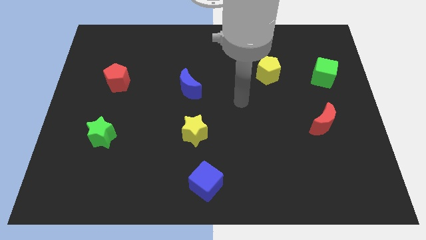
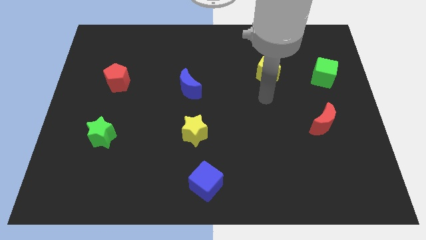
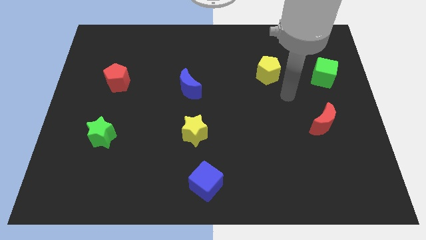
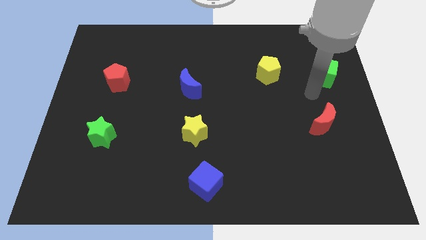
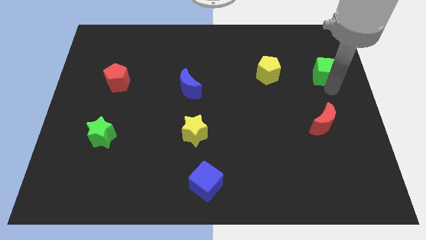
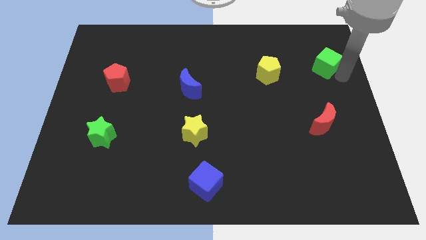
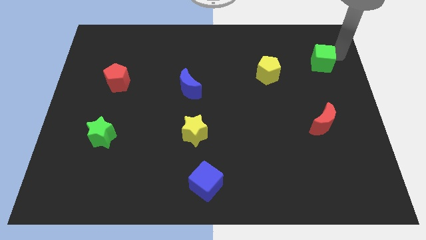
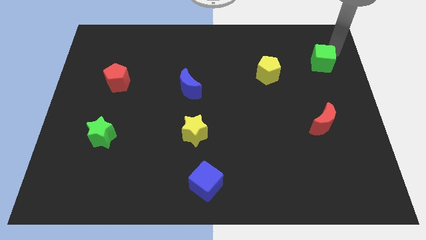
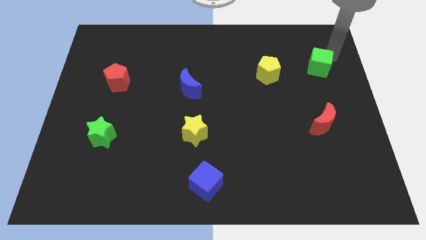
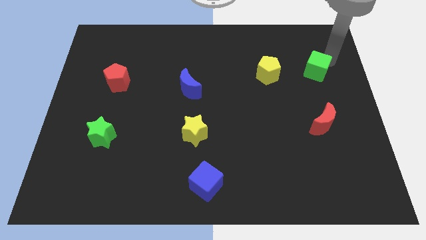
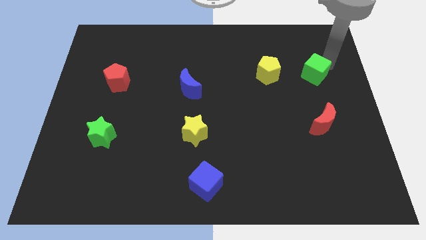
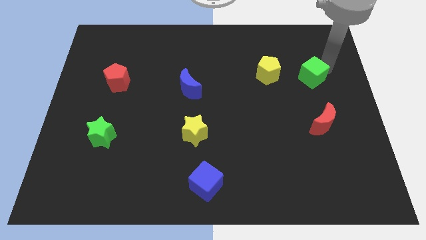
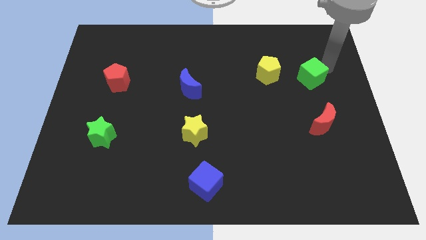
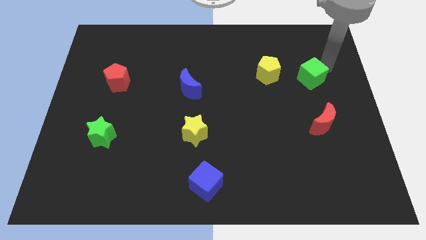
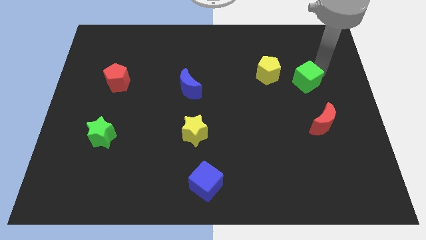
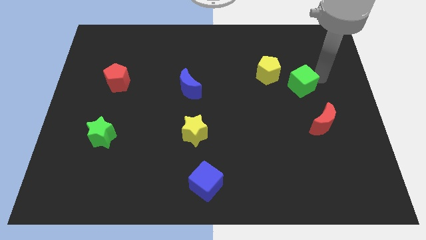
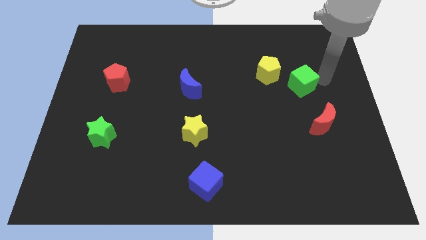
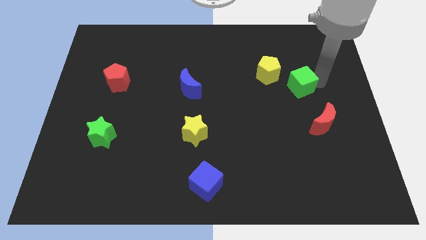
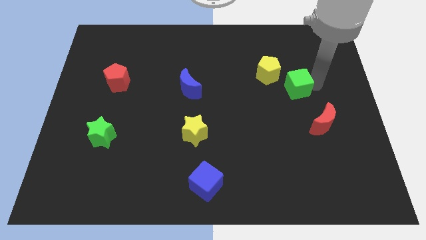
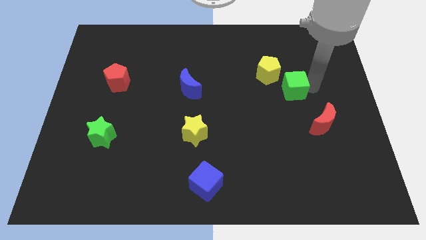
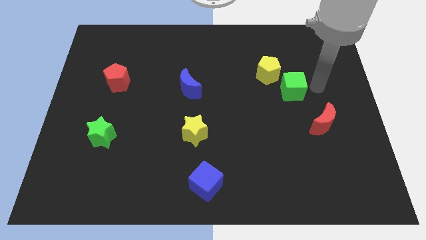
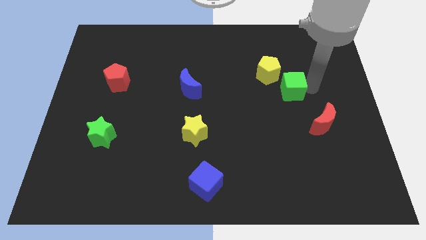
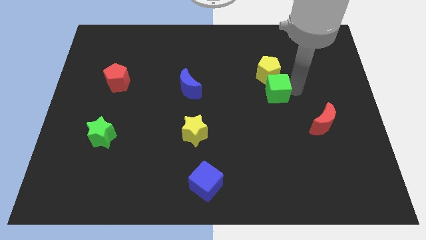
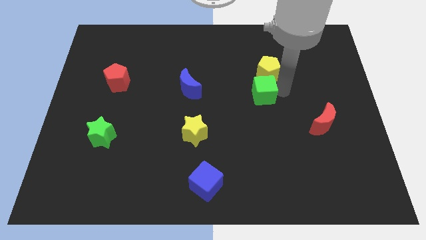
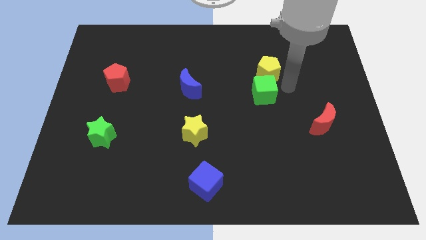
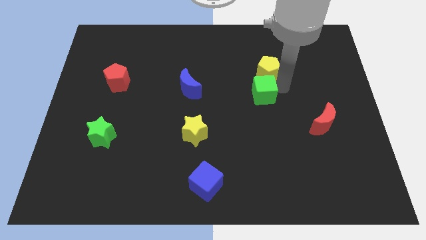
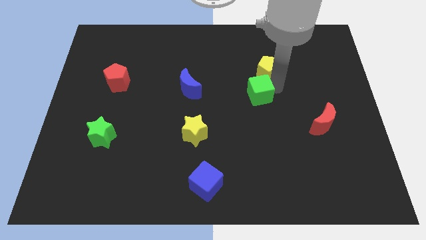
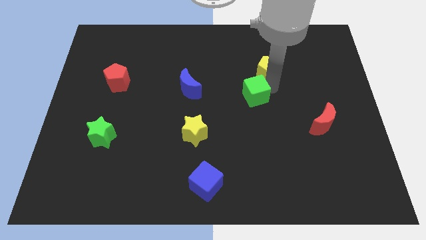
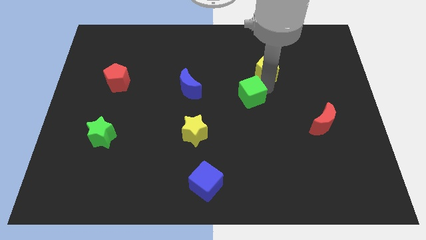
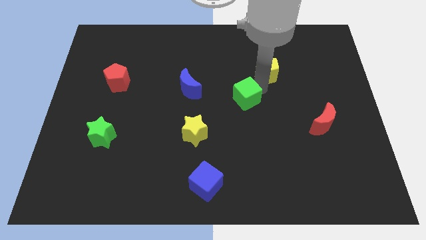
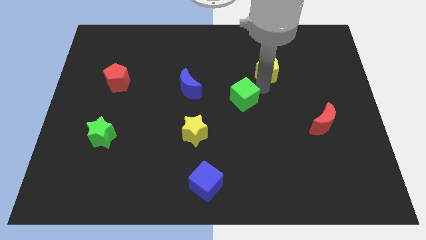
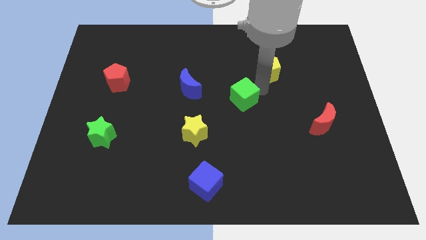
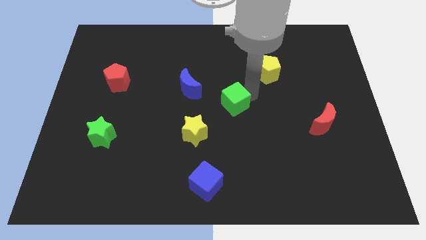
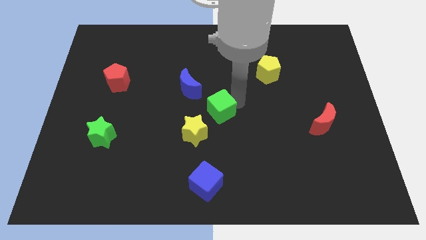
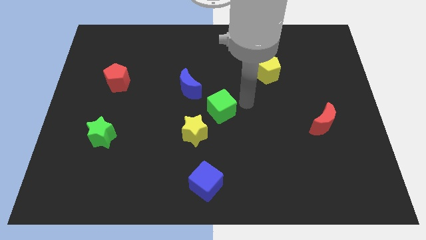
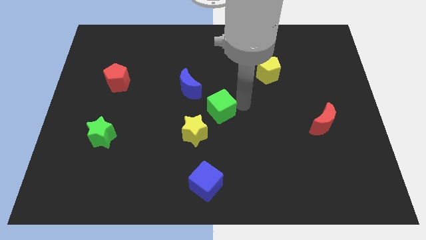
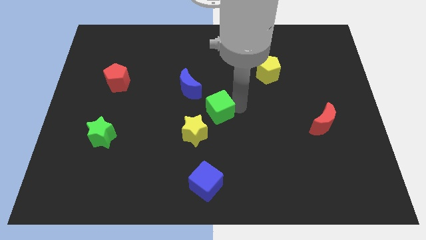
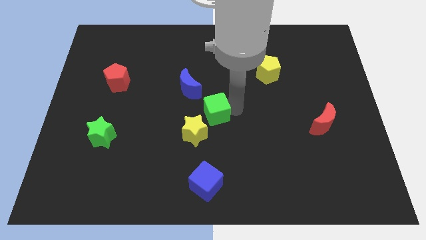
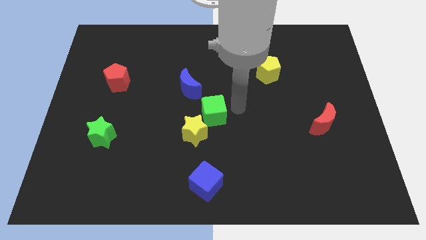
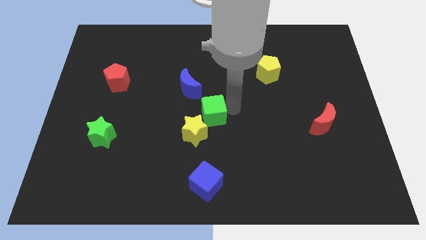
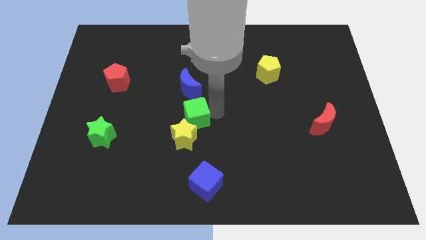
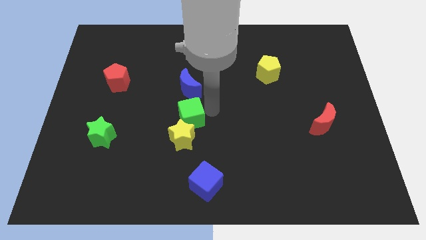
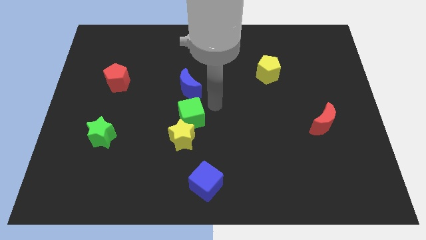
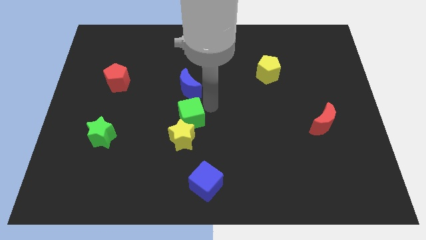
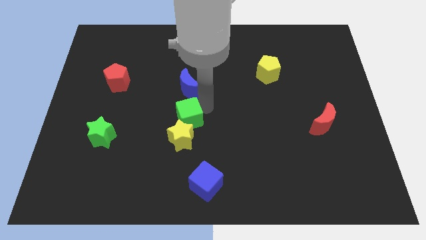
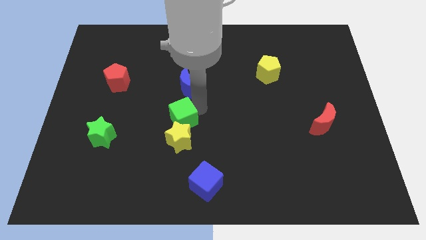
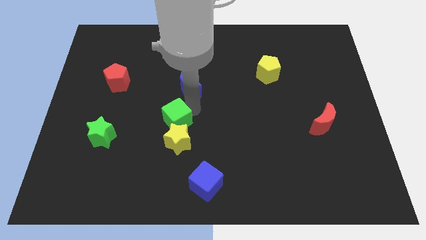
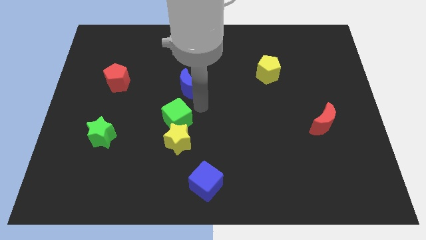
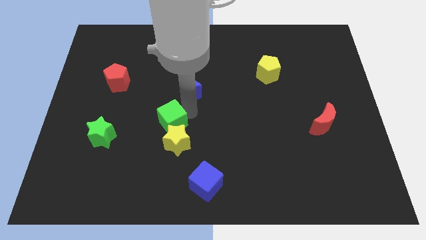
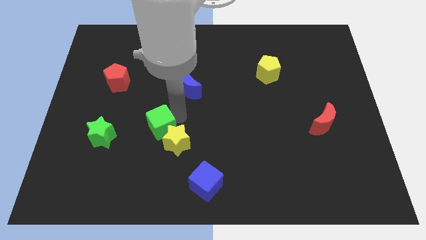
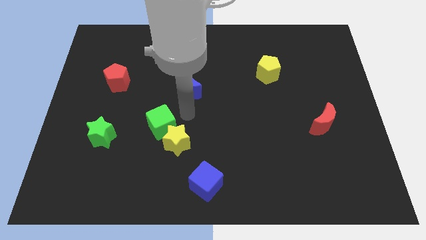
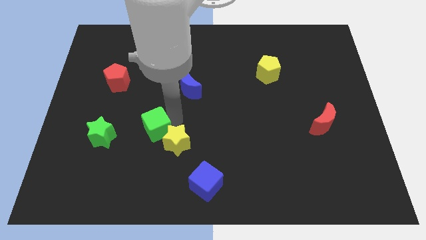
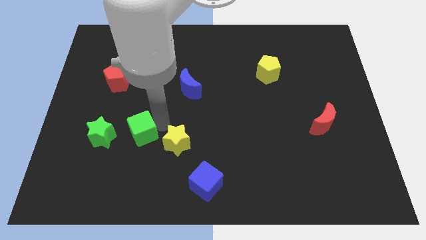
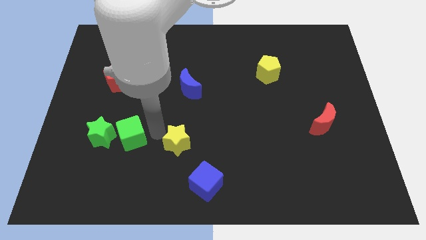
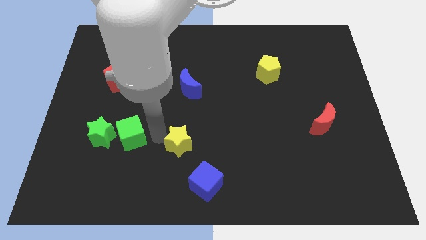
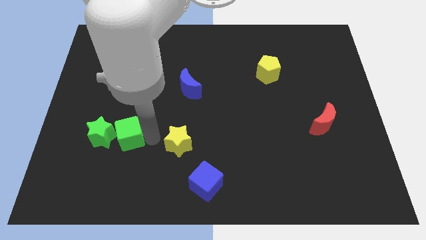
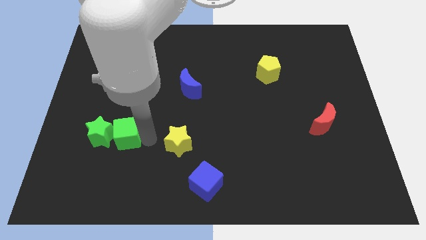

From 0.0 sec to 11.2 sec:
move the green cube towards the green star

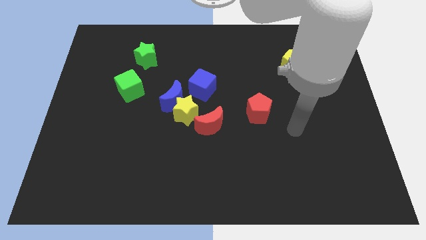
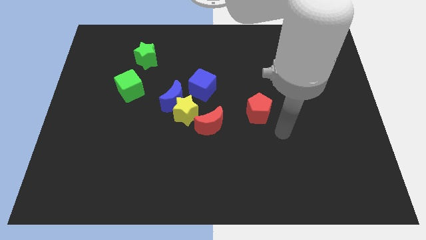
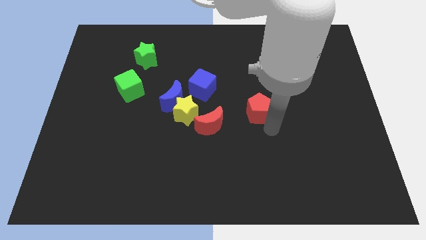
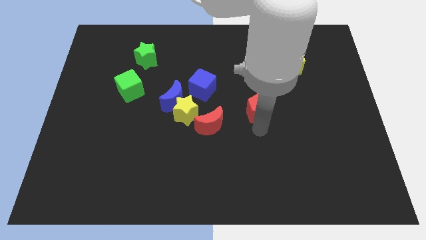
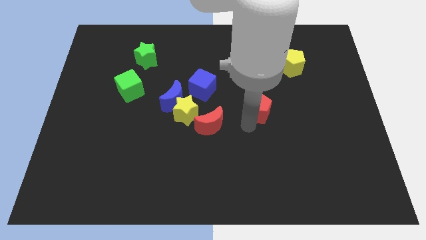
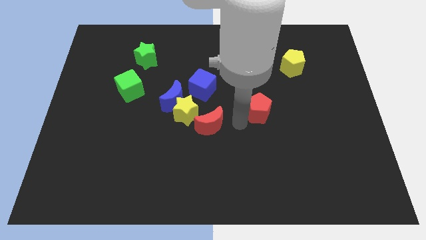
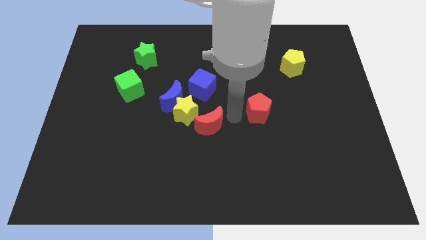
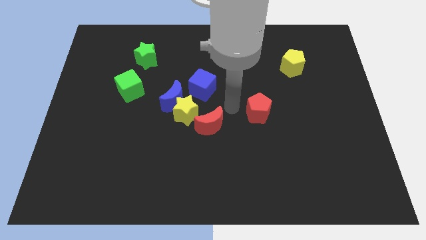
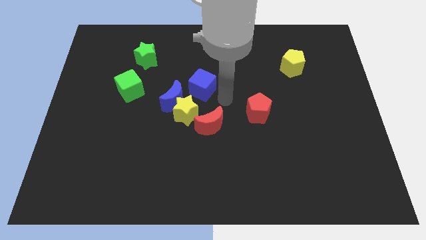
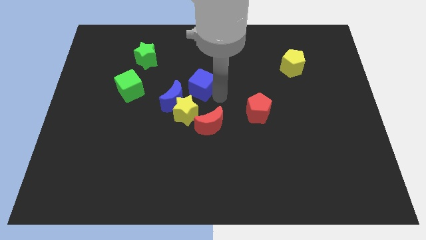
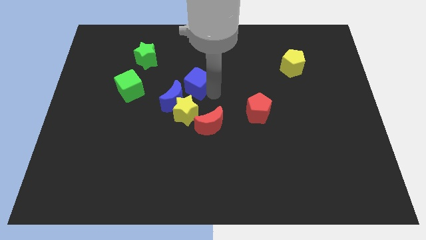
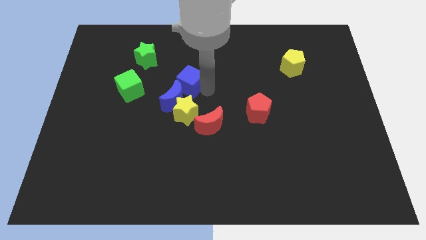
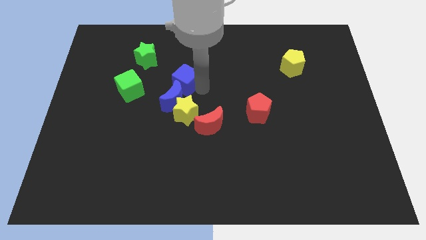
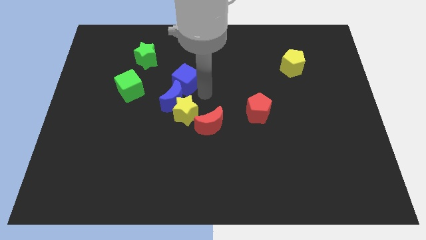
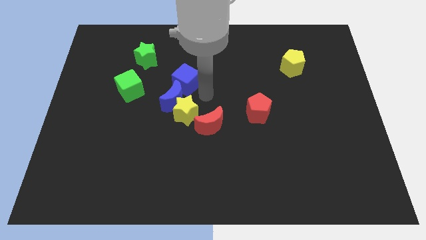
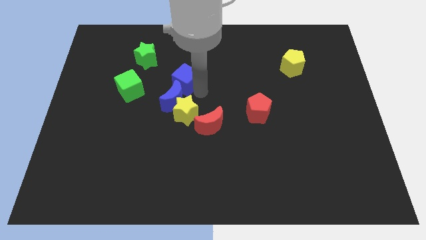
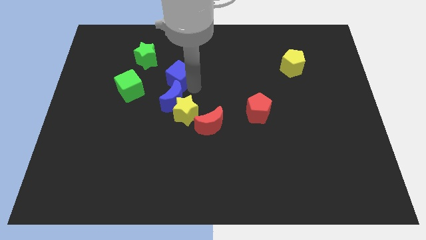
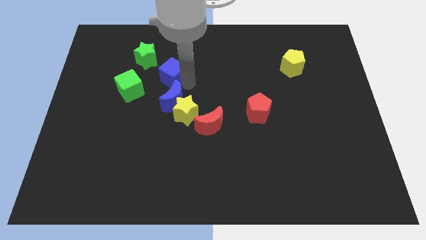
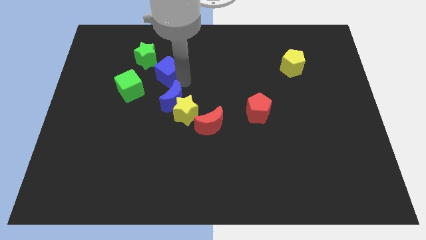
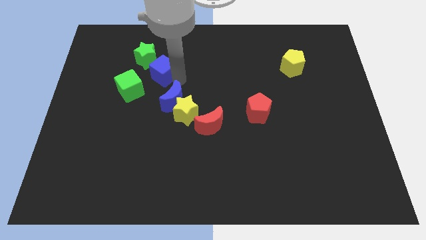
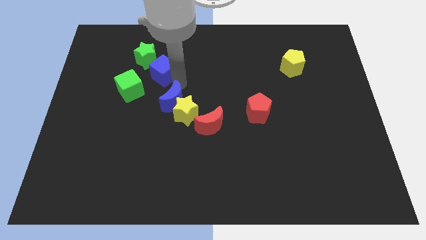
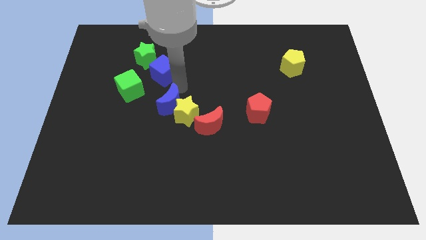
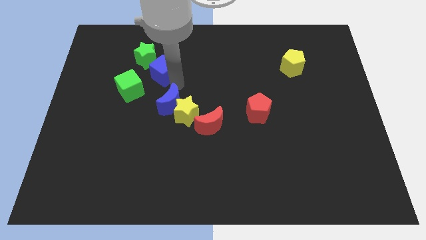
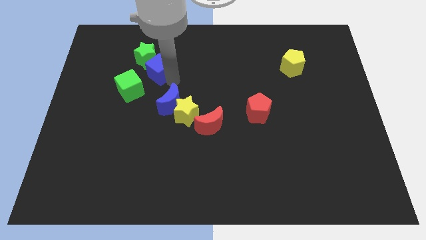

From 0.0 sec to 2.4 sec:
put the blue cube close to the green star
